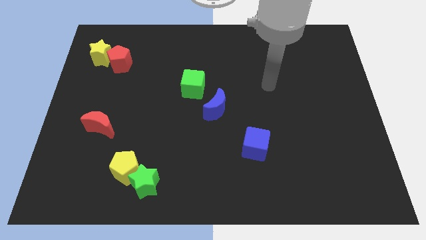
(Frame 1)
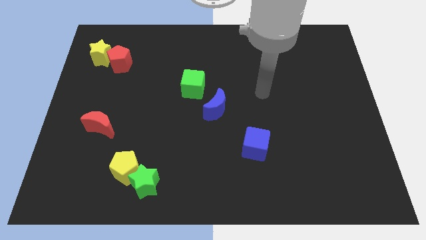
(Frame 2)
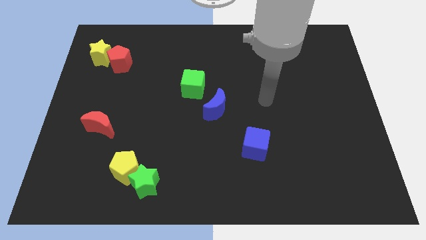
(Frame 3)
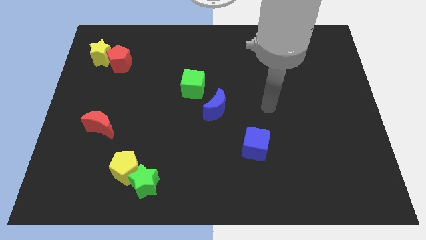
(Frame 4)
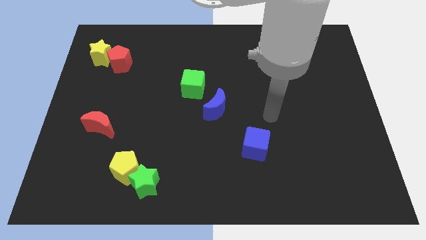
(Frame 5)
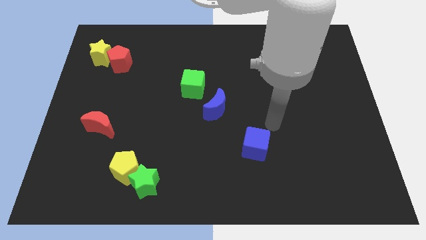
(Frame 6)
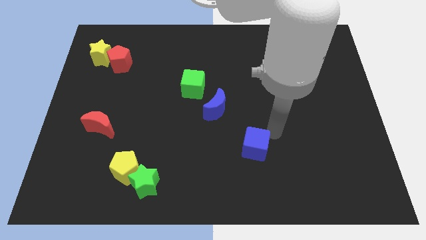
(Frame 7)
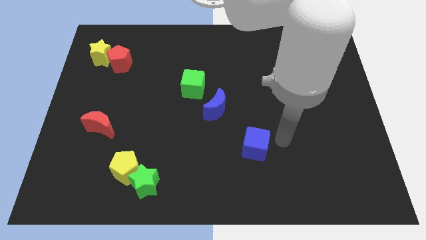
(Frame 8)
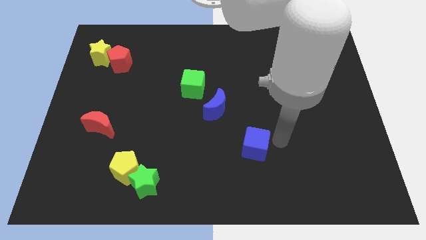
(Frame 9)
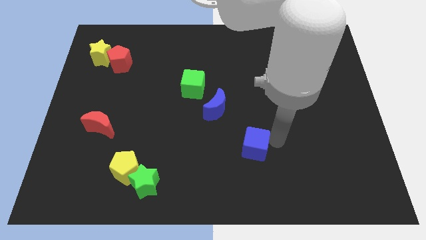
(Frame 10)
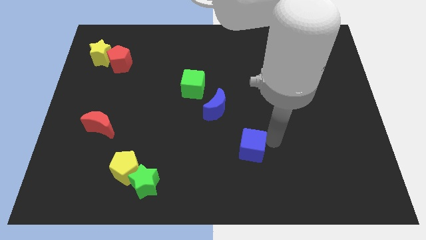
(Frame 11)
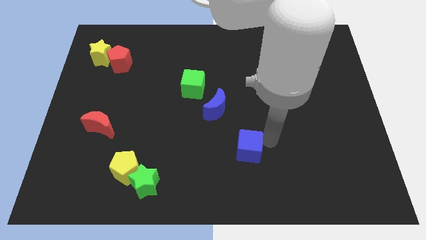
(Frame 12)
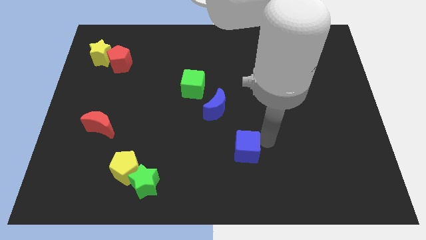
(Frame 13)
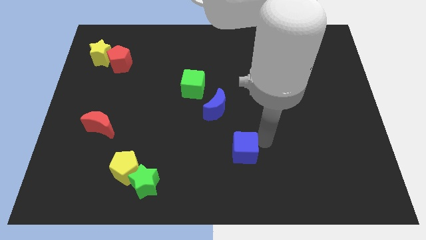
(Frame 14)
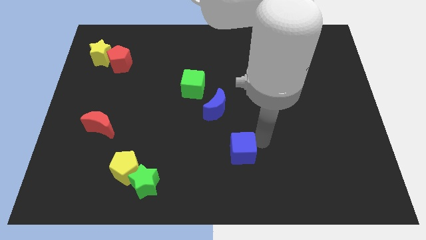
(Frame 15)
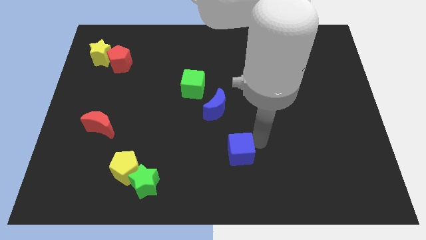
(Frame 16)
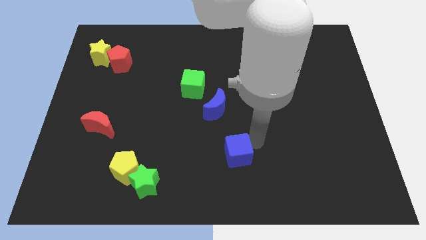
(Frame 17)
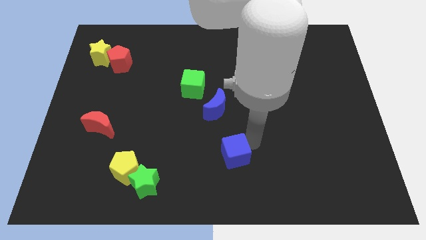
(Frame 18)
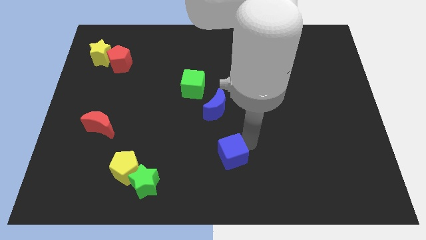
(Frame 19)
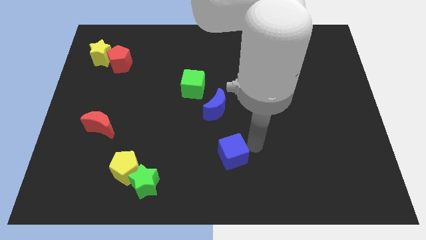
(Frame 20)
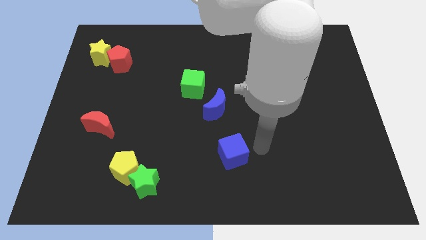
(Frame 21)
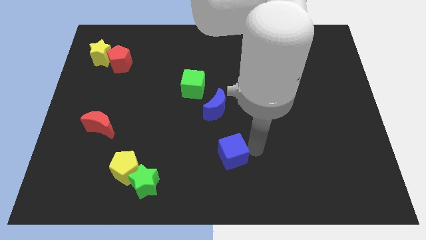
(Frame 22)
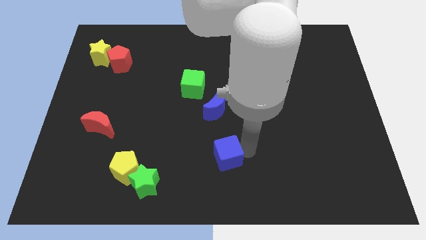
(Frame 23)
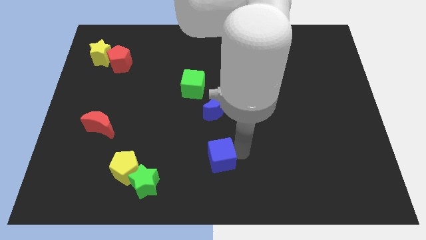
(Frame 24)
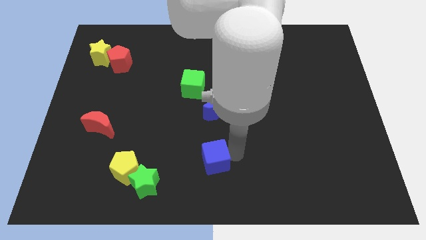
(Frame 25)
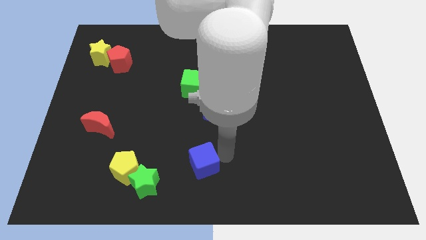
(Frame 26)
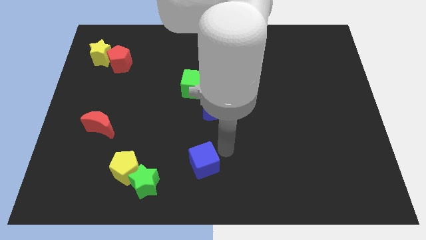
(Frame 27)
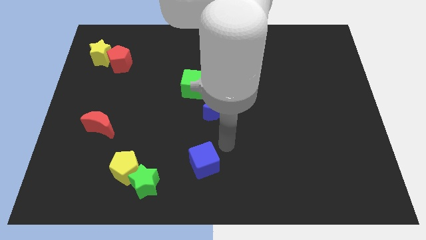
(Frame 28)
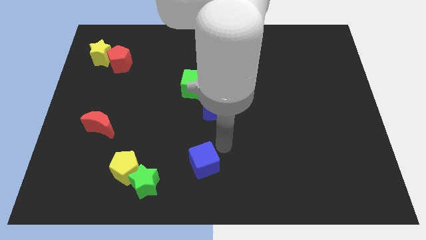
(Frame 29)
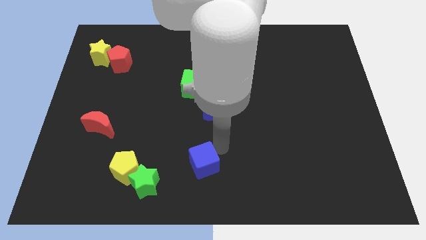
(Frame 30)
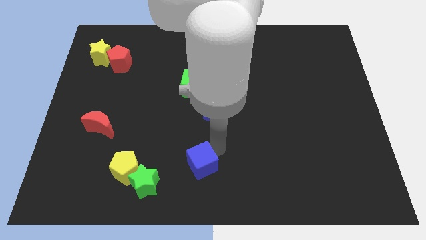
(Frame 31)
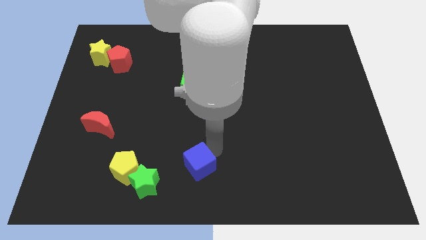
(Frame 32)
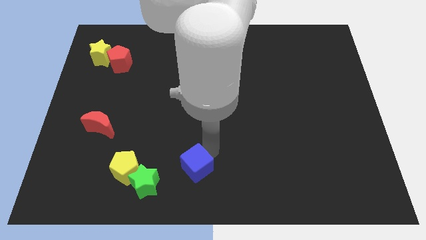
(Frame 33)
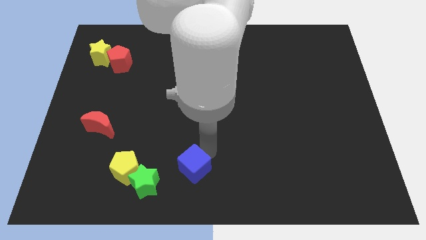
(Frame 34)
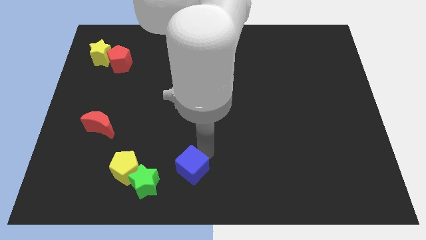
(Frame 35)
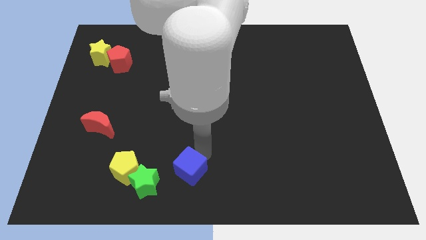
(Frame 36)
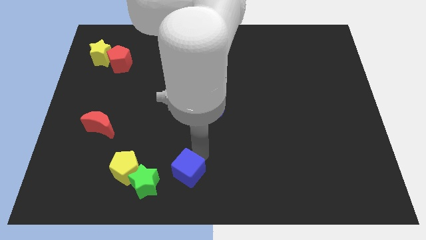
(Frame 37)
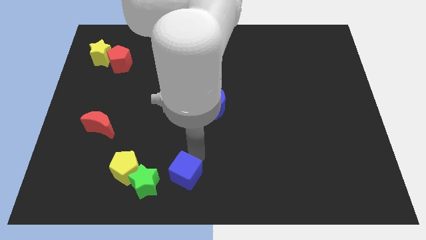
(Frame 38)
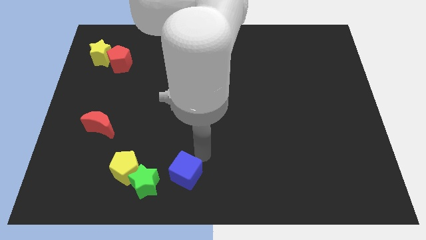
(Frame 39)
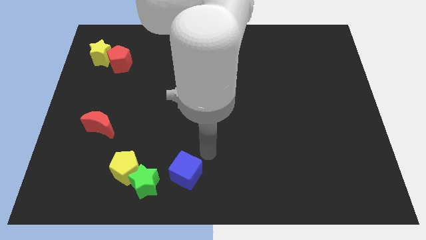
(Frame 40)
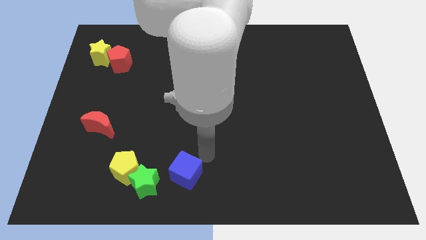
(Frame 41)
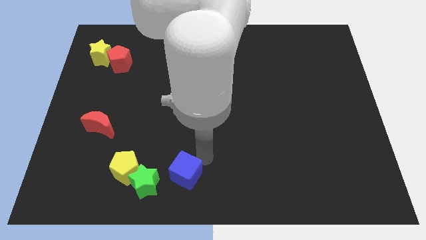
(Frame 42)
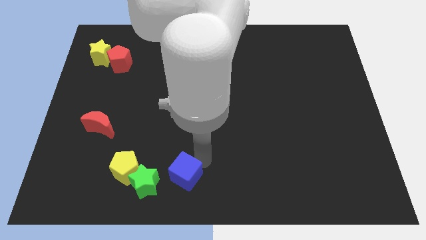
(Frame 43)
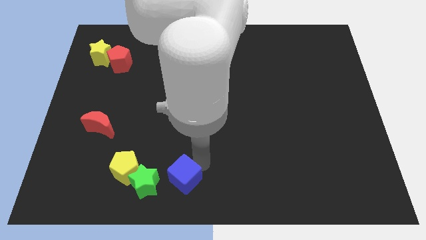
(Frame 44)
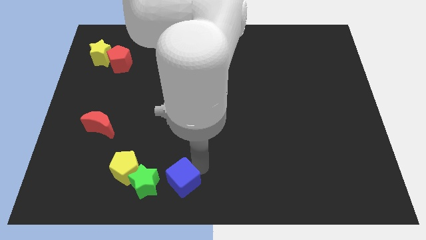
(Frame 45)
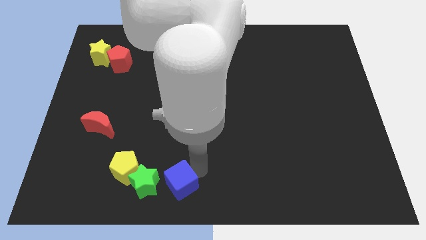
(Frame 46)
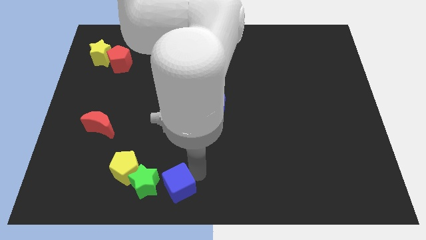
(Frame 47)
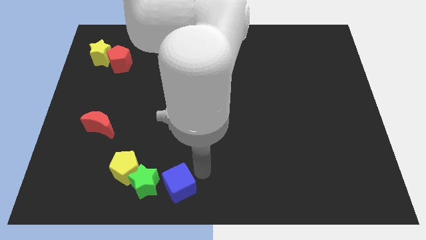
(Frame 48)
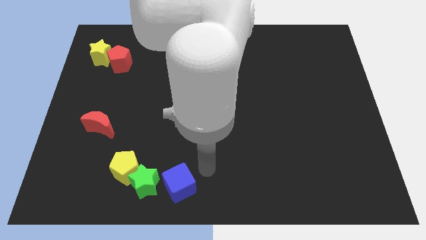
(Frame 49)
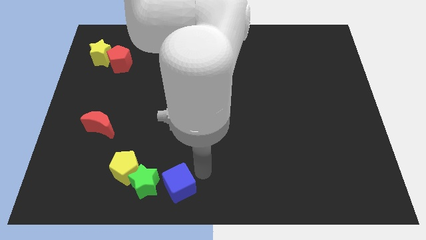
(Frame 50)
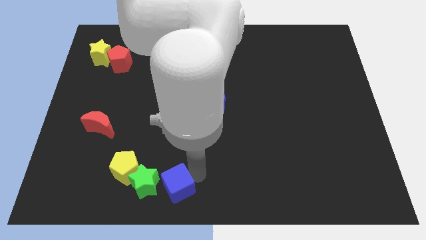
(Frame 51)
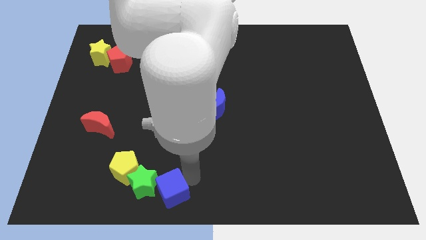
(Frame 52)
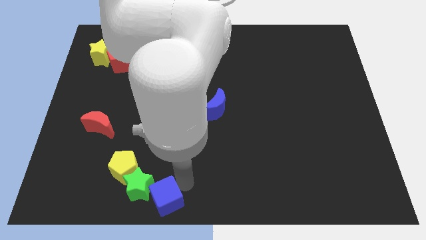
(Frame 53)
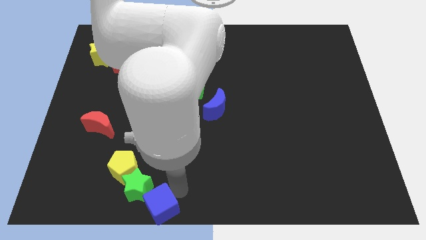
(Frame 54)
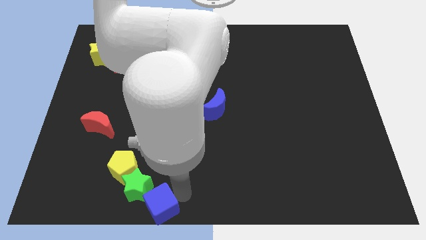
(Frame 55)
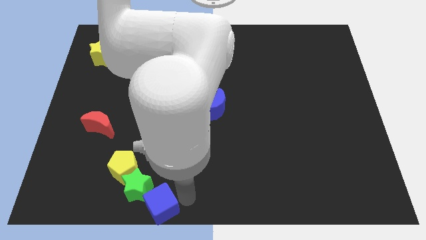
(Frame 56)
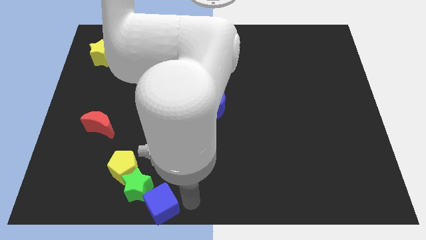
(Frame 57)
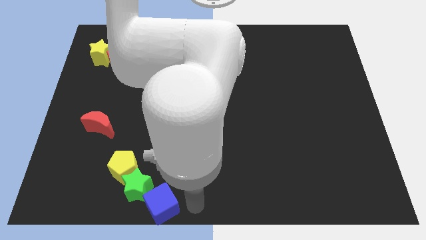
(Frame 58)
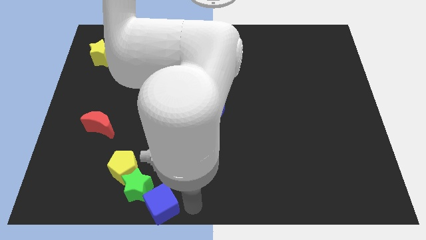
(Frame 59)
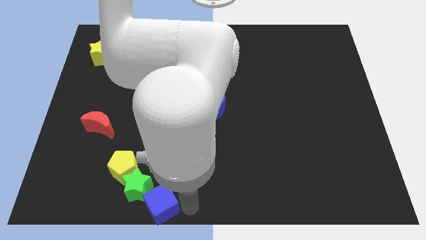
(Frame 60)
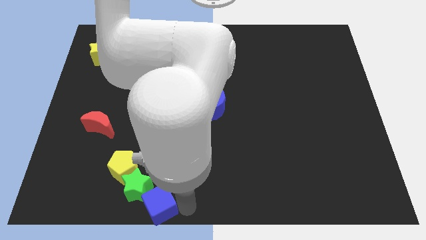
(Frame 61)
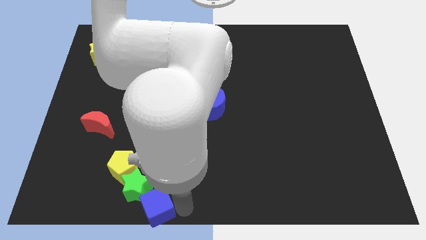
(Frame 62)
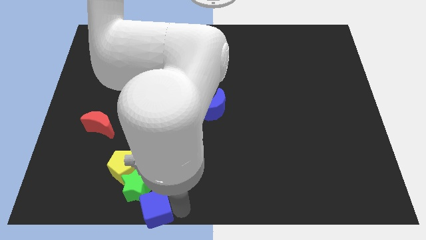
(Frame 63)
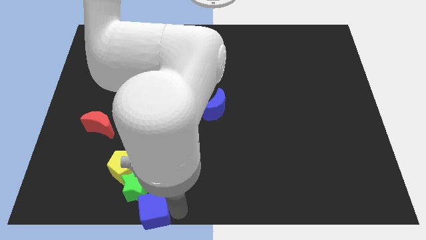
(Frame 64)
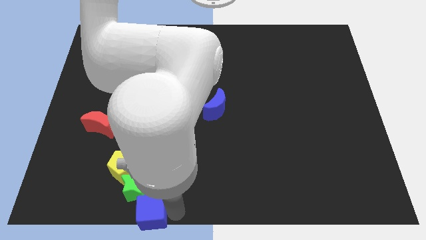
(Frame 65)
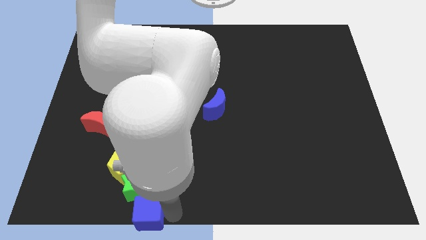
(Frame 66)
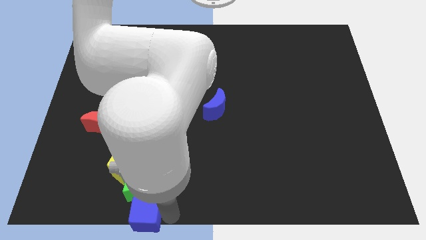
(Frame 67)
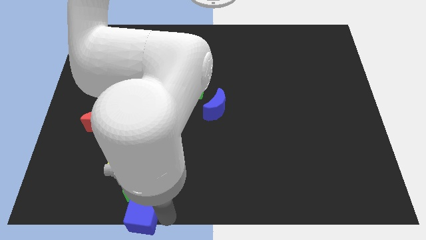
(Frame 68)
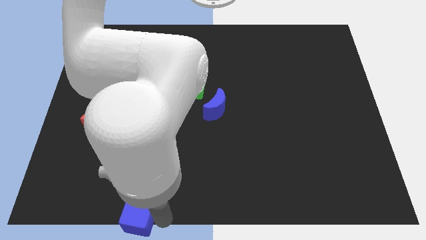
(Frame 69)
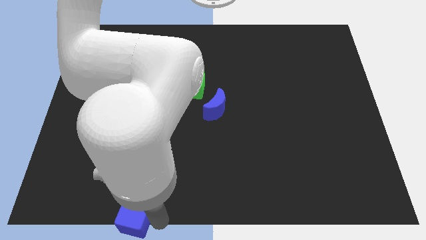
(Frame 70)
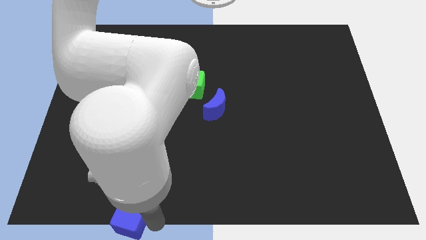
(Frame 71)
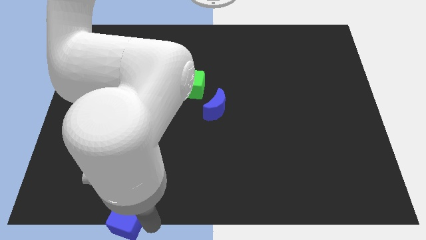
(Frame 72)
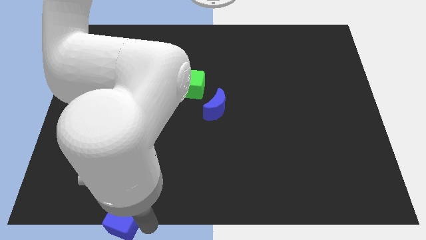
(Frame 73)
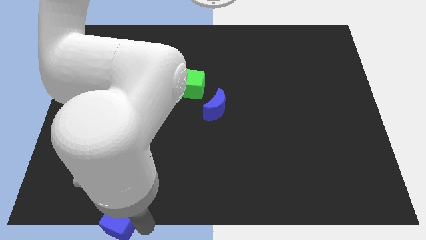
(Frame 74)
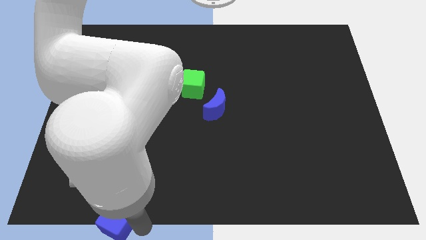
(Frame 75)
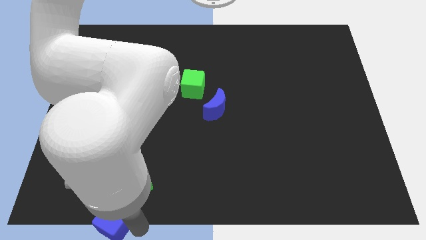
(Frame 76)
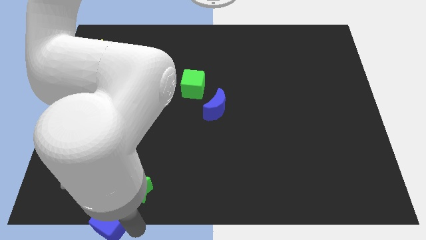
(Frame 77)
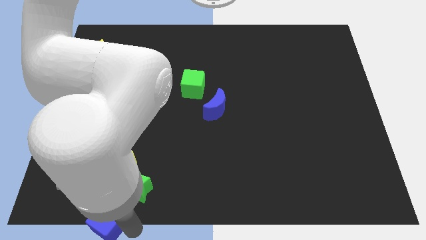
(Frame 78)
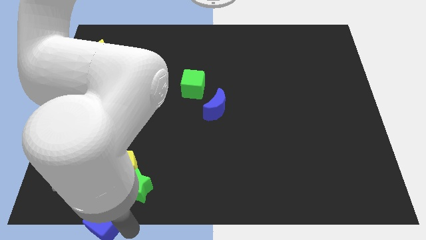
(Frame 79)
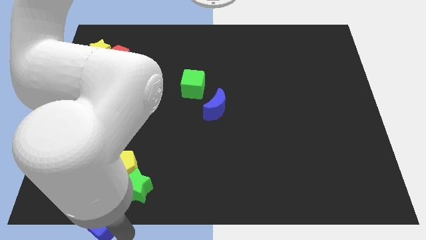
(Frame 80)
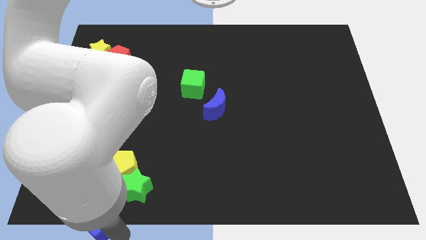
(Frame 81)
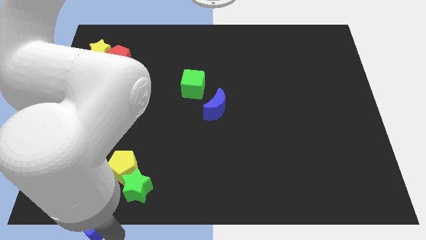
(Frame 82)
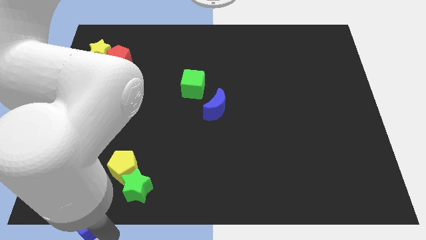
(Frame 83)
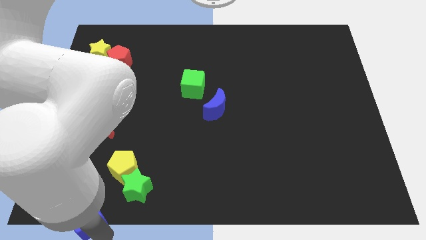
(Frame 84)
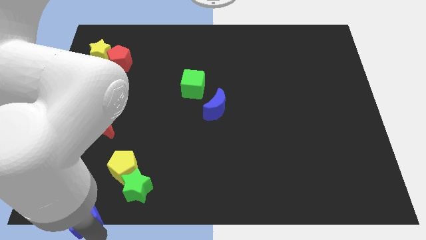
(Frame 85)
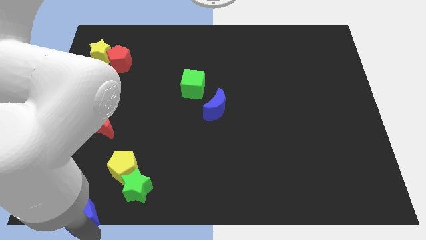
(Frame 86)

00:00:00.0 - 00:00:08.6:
move the blue cube to the bottom left
